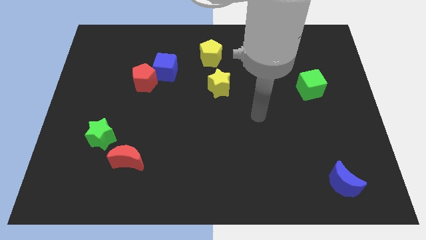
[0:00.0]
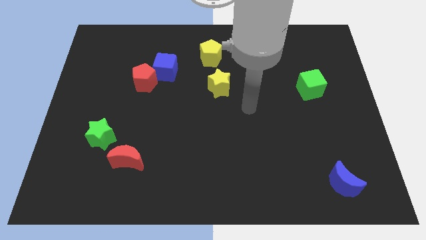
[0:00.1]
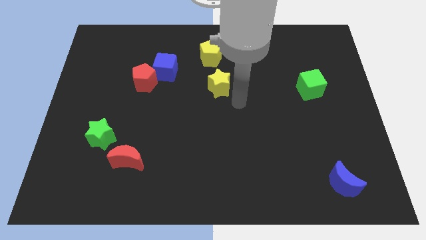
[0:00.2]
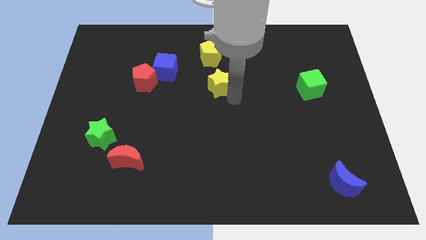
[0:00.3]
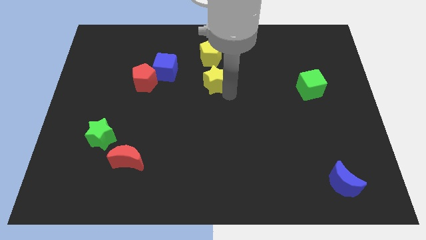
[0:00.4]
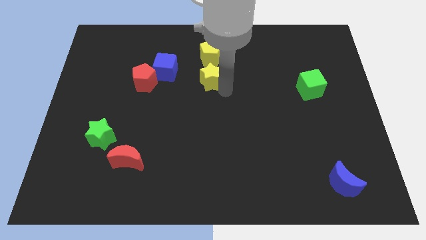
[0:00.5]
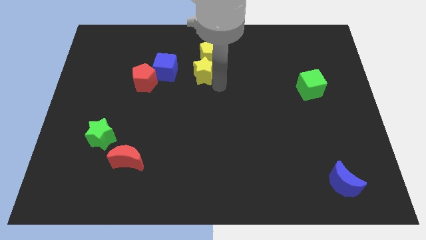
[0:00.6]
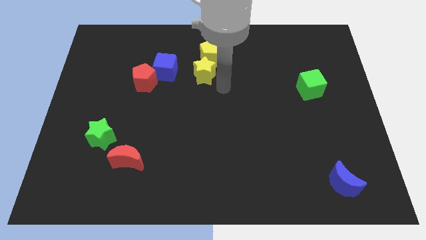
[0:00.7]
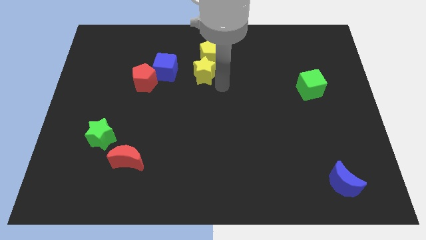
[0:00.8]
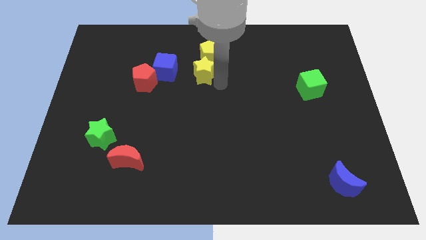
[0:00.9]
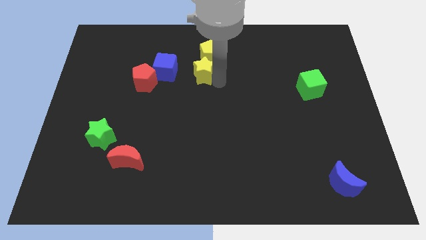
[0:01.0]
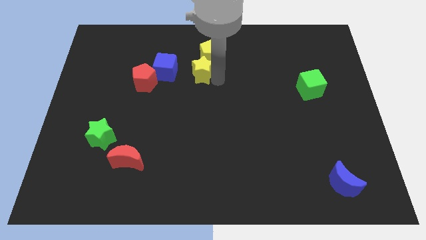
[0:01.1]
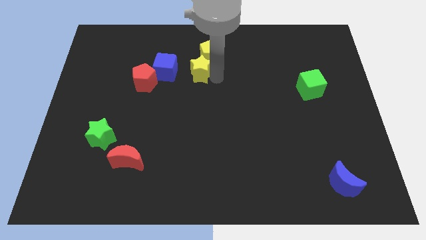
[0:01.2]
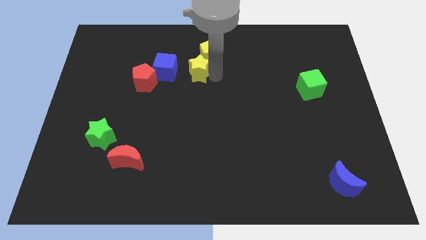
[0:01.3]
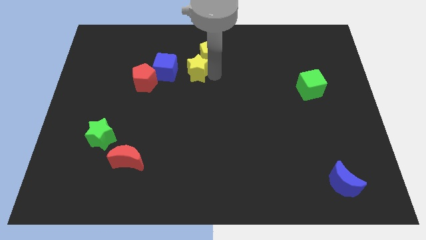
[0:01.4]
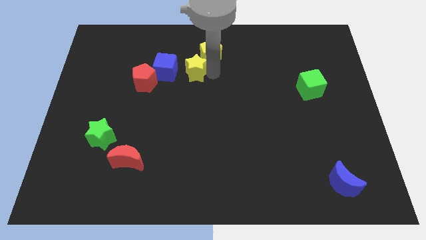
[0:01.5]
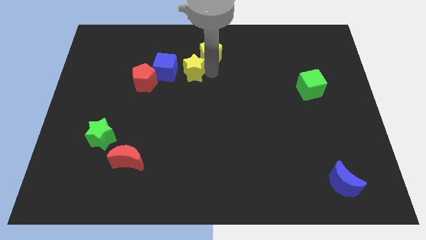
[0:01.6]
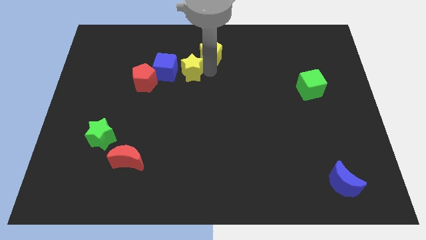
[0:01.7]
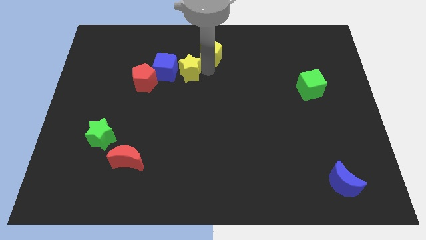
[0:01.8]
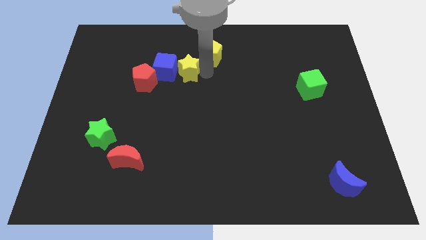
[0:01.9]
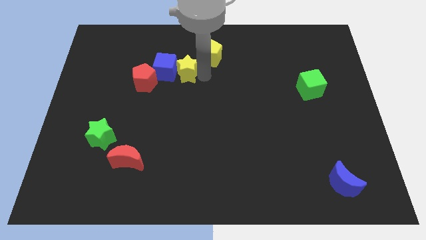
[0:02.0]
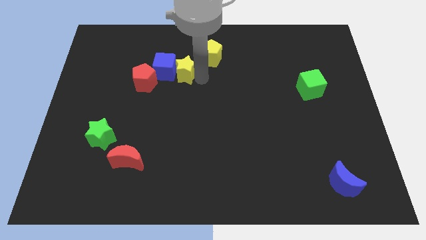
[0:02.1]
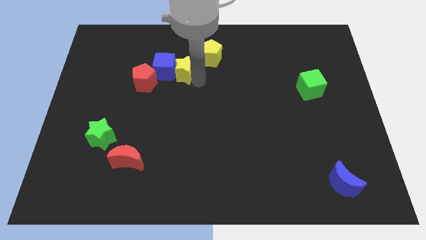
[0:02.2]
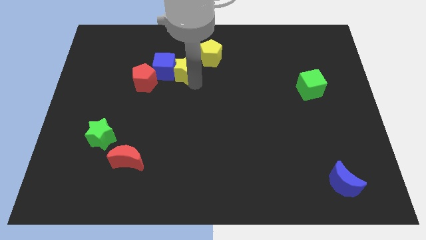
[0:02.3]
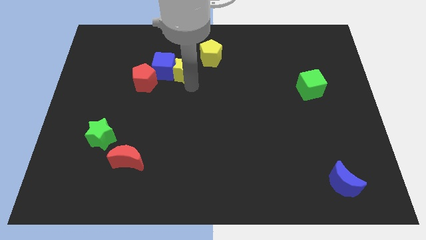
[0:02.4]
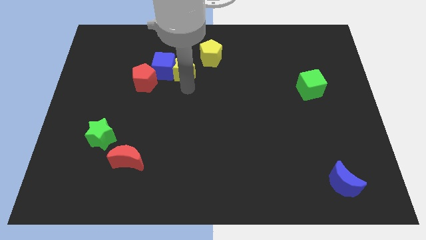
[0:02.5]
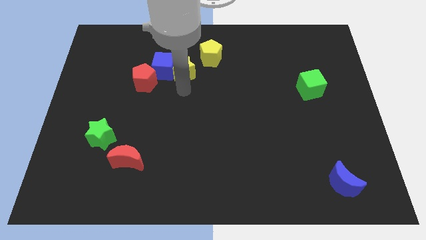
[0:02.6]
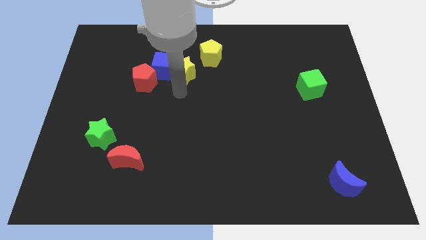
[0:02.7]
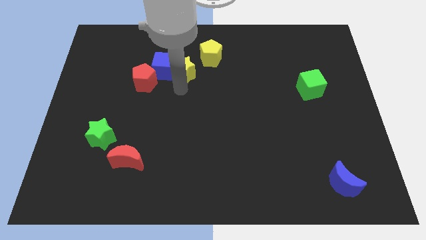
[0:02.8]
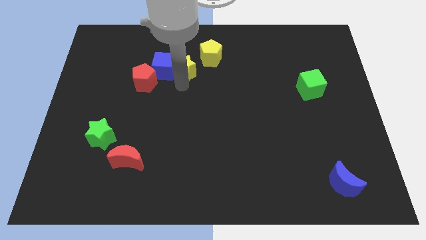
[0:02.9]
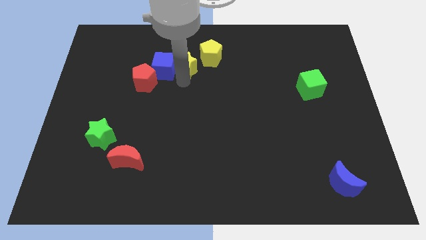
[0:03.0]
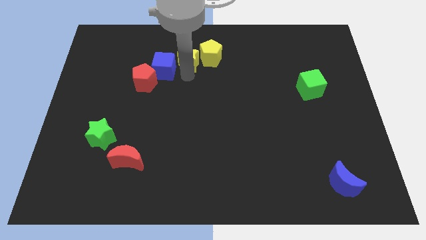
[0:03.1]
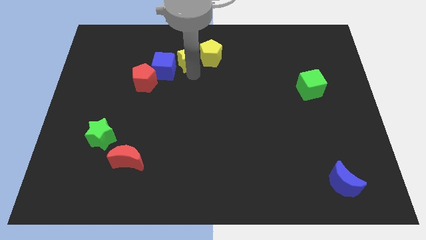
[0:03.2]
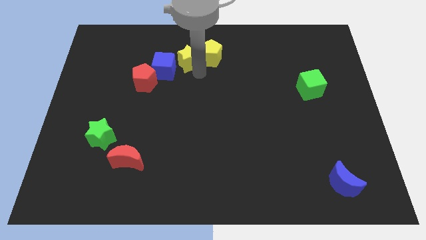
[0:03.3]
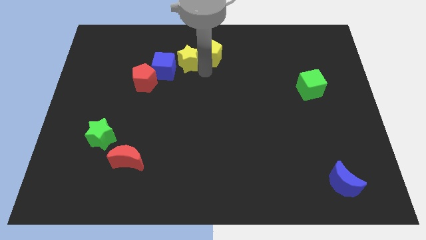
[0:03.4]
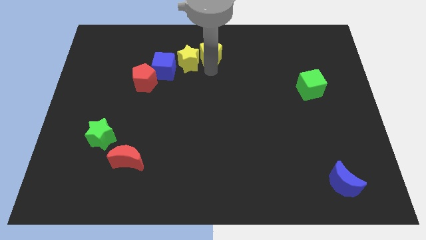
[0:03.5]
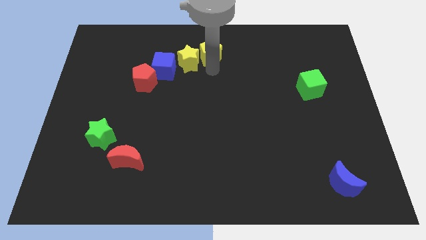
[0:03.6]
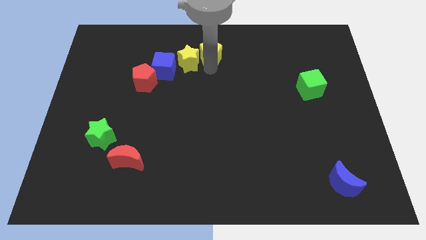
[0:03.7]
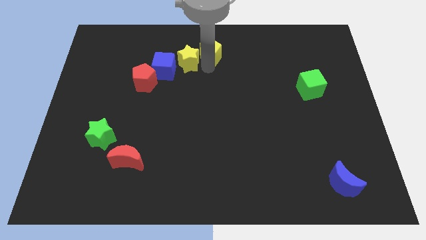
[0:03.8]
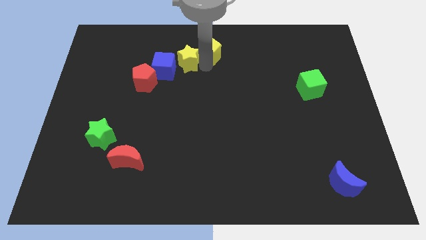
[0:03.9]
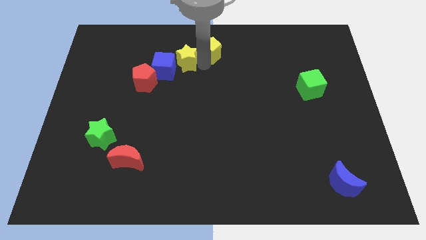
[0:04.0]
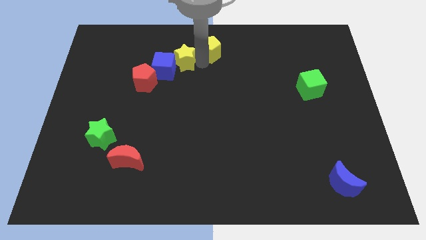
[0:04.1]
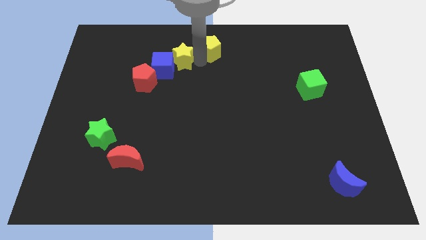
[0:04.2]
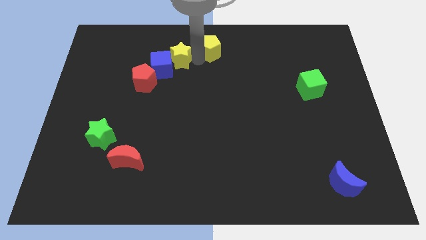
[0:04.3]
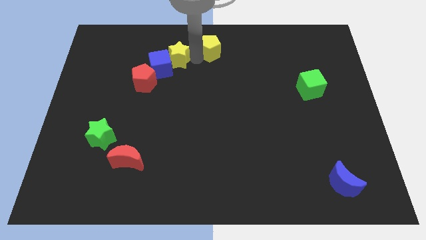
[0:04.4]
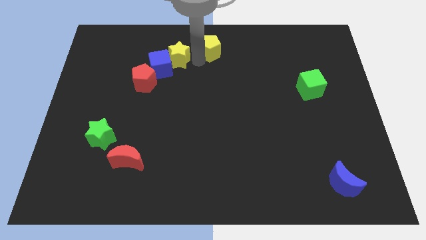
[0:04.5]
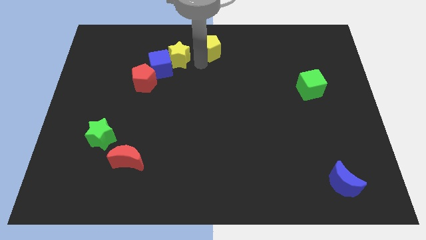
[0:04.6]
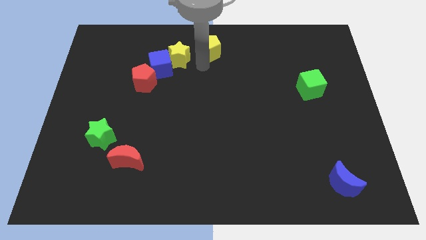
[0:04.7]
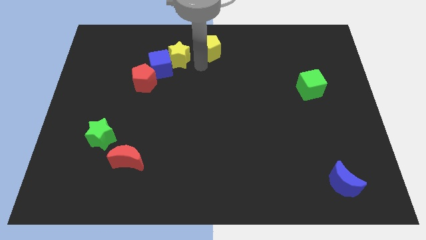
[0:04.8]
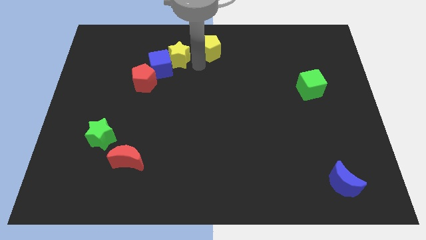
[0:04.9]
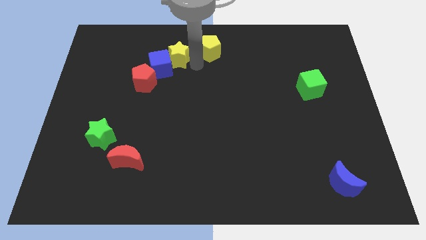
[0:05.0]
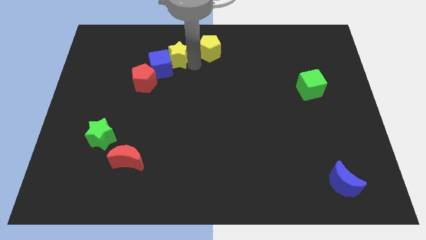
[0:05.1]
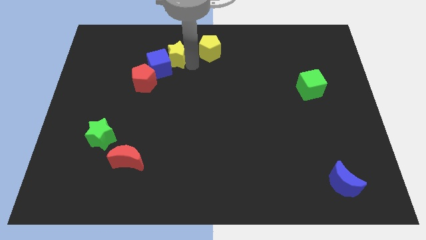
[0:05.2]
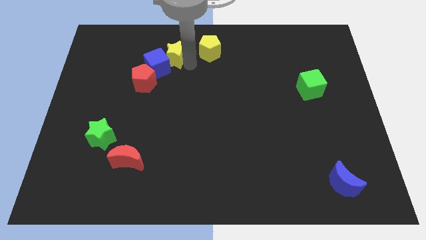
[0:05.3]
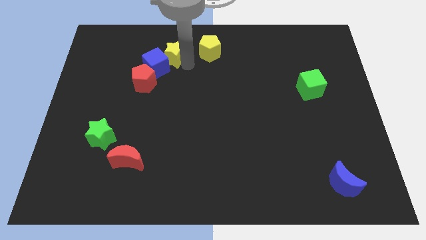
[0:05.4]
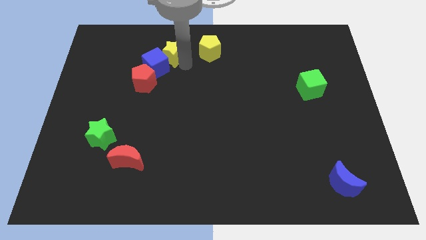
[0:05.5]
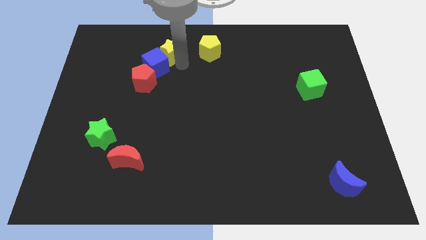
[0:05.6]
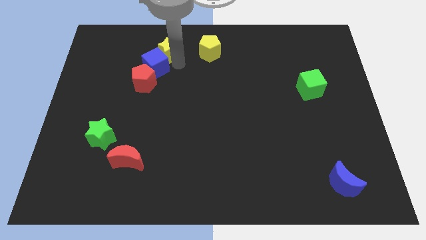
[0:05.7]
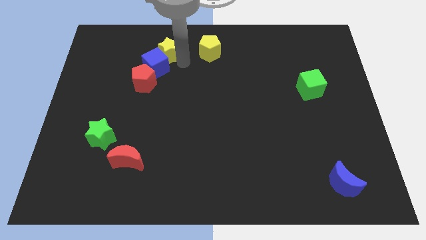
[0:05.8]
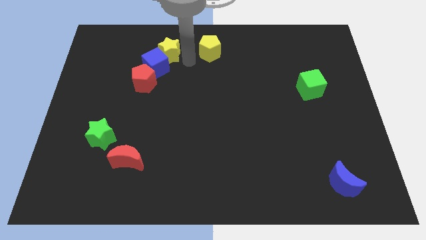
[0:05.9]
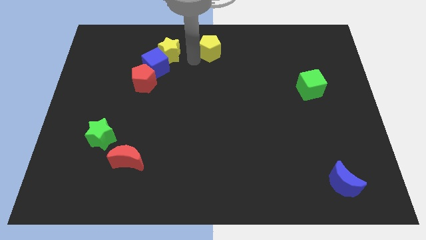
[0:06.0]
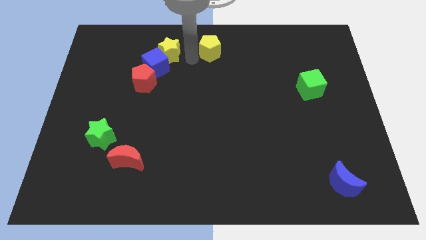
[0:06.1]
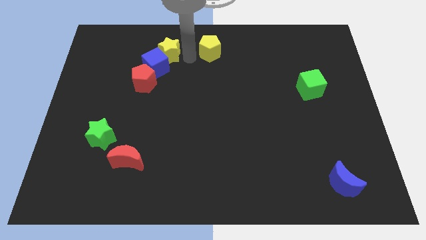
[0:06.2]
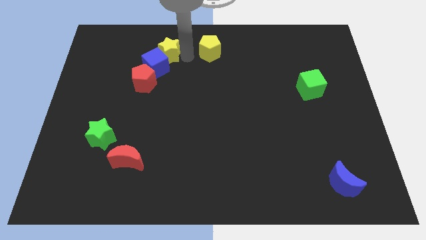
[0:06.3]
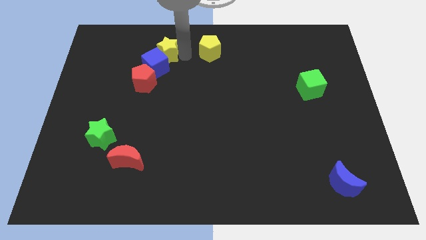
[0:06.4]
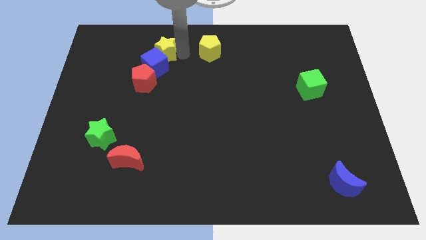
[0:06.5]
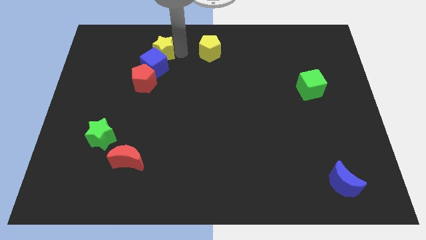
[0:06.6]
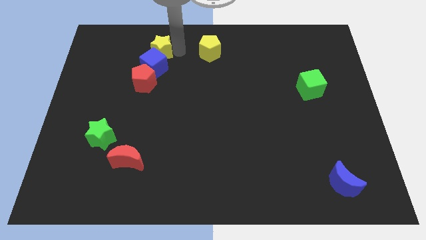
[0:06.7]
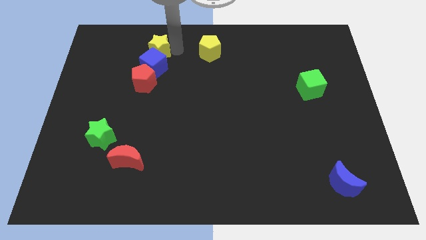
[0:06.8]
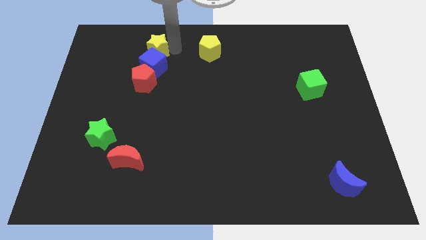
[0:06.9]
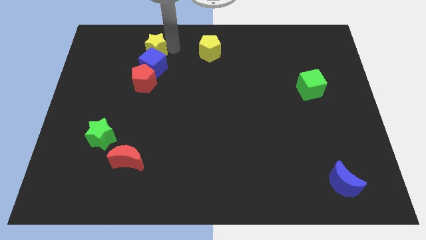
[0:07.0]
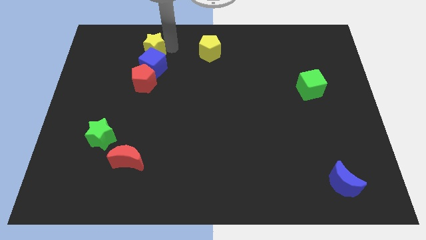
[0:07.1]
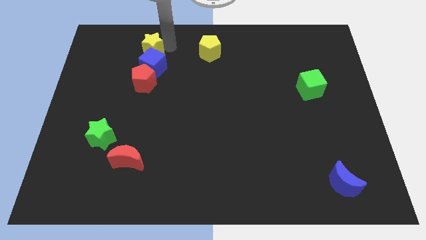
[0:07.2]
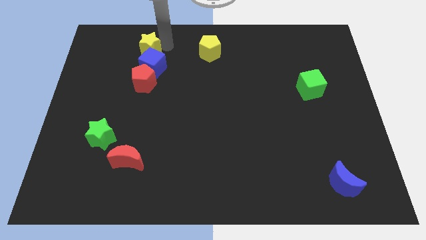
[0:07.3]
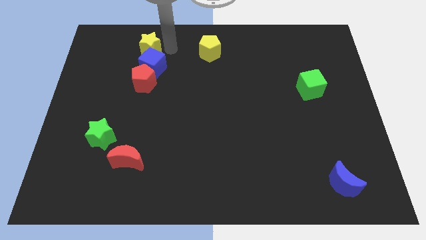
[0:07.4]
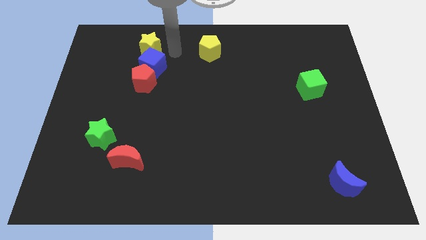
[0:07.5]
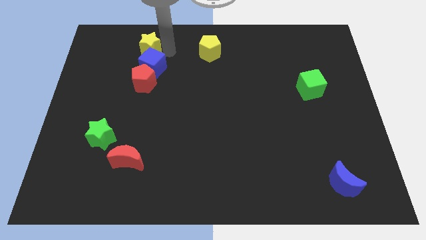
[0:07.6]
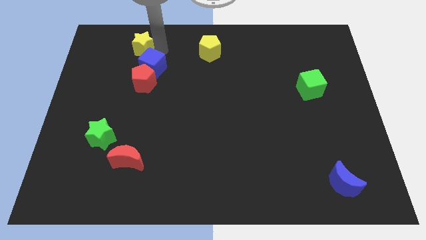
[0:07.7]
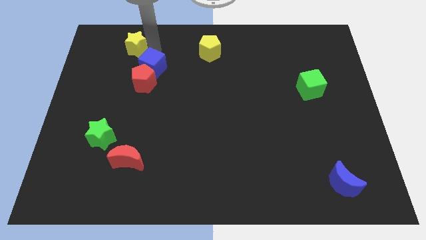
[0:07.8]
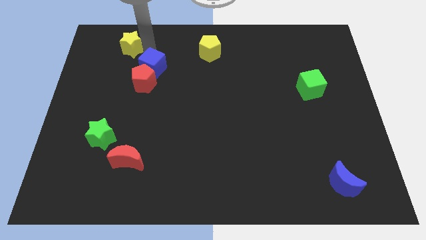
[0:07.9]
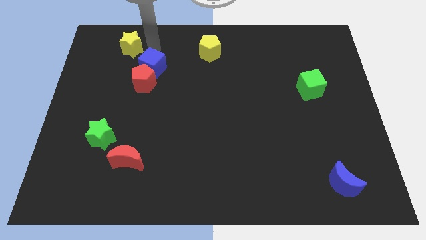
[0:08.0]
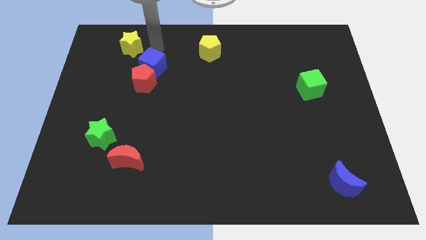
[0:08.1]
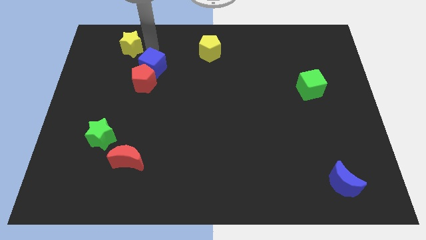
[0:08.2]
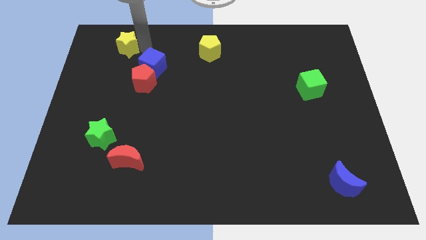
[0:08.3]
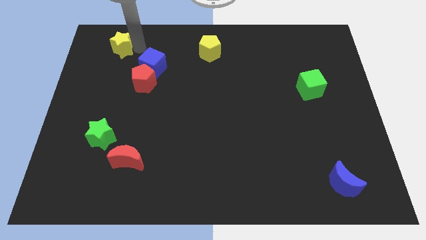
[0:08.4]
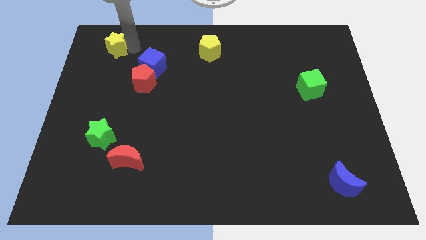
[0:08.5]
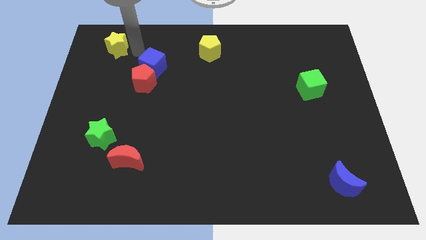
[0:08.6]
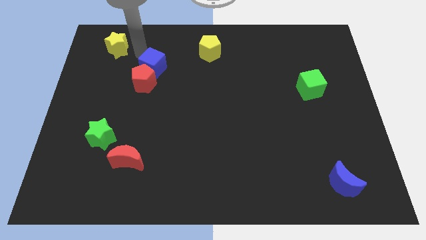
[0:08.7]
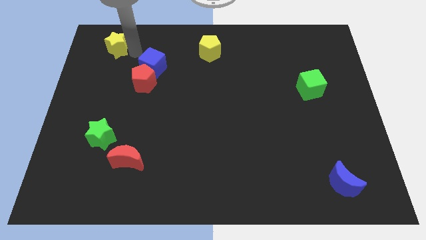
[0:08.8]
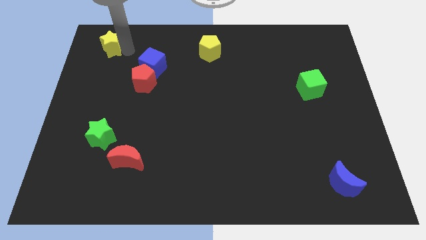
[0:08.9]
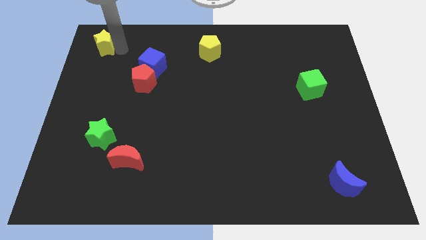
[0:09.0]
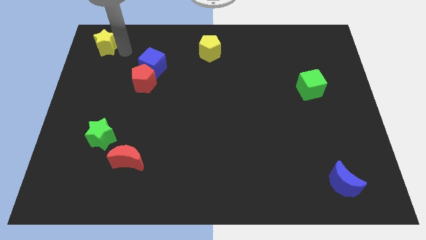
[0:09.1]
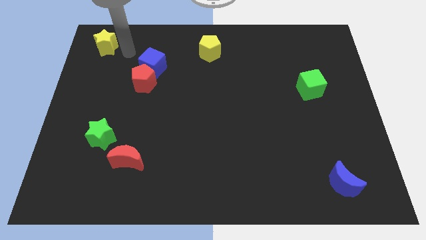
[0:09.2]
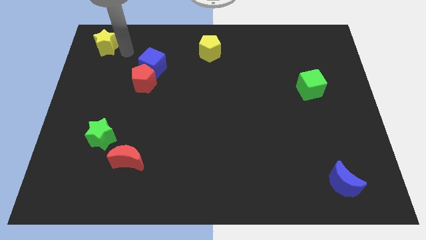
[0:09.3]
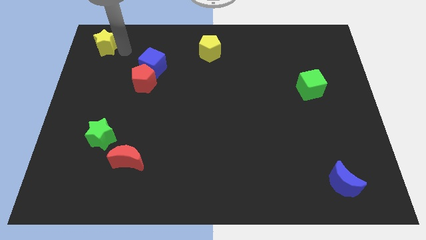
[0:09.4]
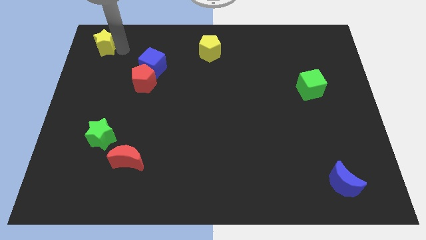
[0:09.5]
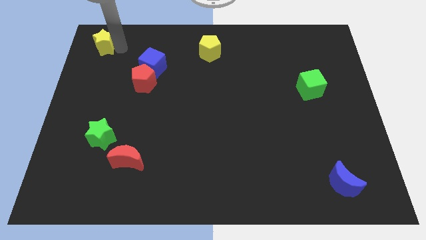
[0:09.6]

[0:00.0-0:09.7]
push the yellow star to the top left corner
